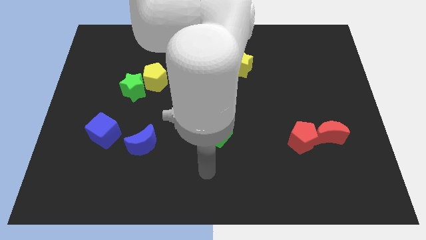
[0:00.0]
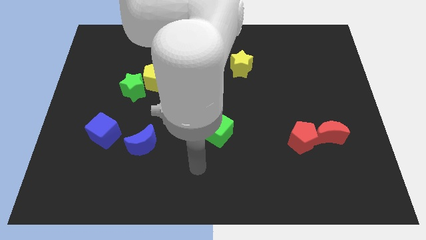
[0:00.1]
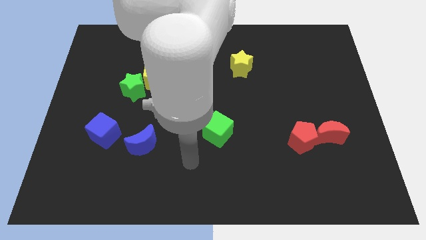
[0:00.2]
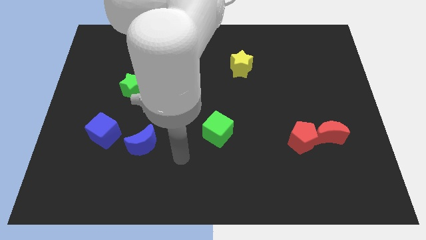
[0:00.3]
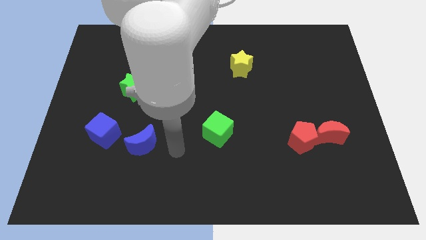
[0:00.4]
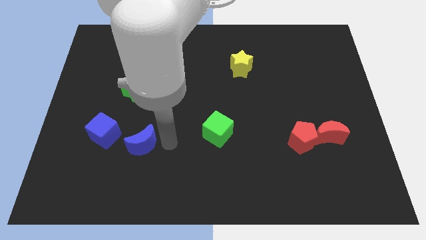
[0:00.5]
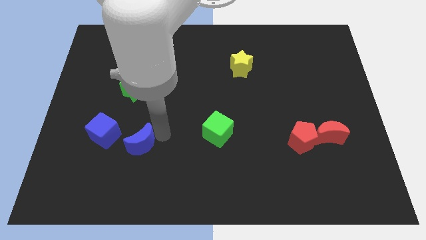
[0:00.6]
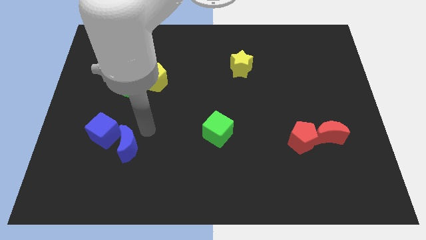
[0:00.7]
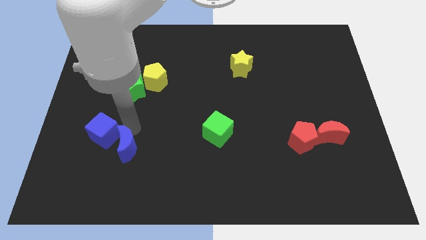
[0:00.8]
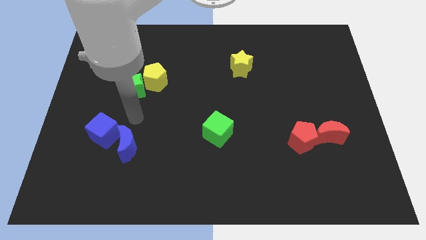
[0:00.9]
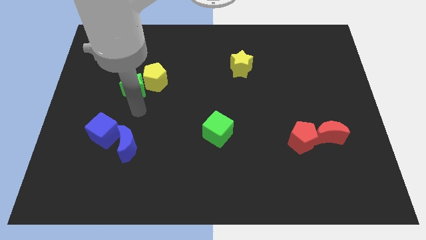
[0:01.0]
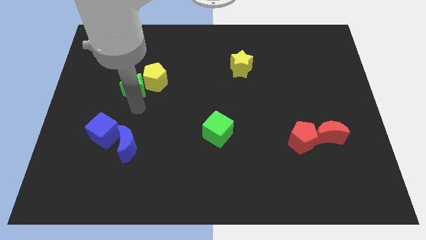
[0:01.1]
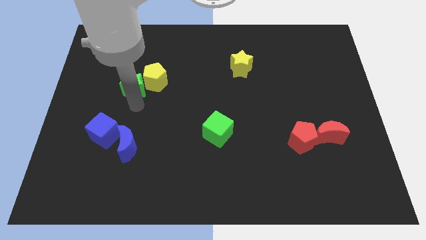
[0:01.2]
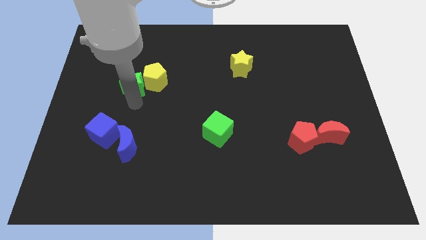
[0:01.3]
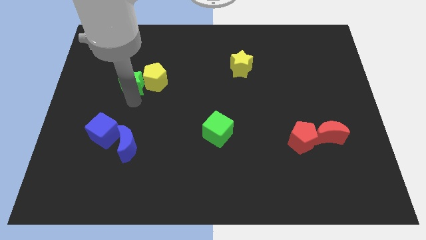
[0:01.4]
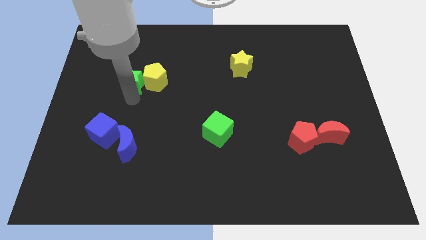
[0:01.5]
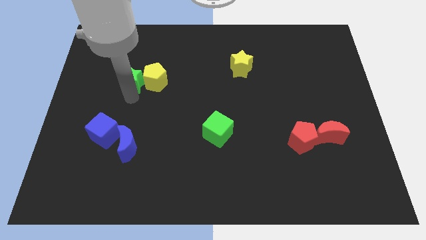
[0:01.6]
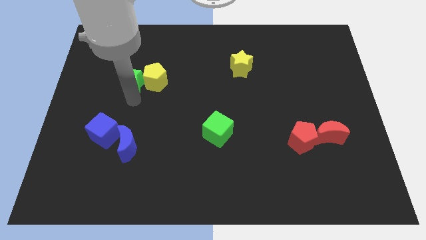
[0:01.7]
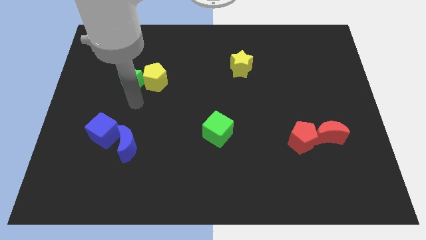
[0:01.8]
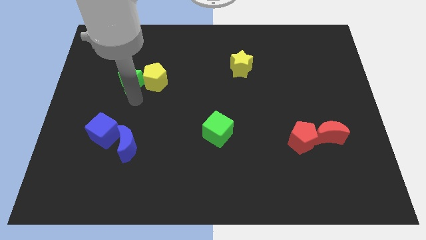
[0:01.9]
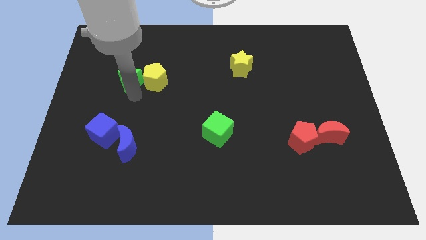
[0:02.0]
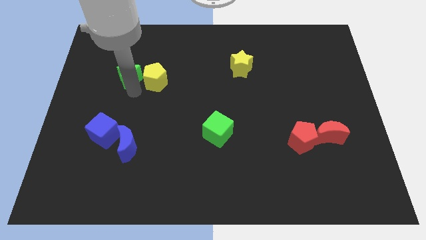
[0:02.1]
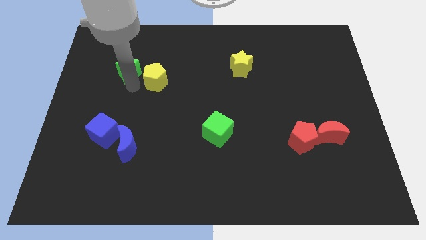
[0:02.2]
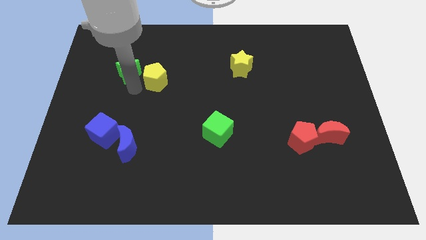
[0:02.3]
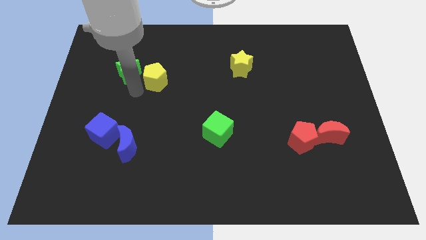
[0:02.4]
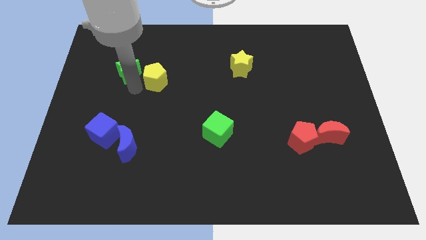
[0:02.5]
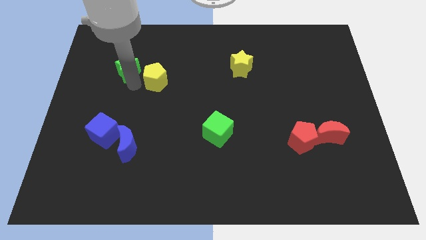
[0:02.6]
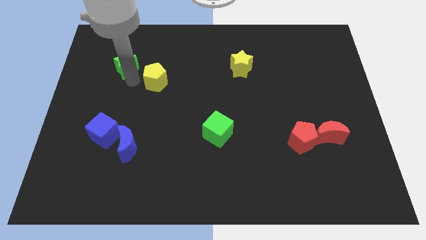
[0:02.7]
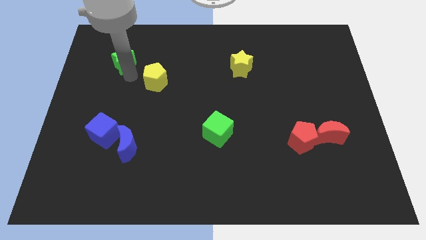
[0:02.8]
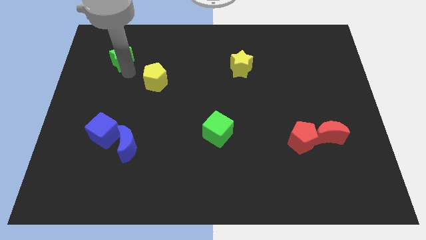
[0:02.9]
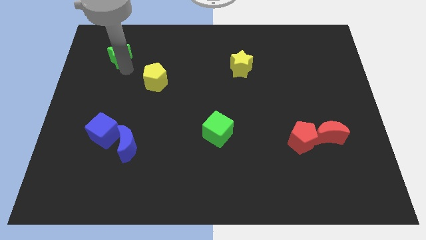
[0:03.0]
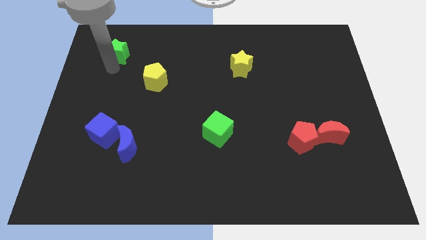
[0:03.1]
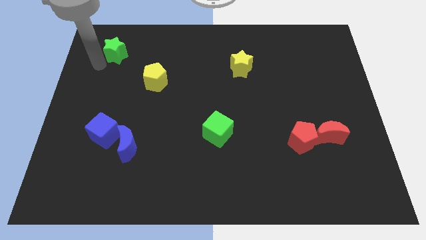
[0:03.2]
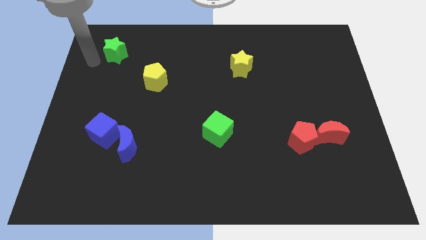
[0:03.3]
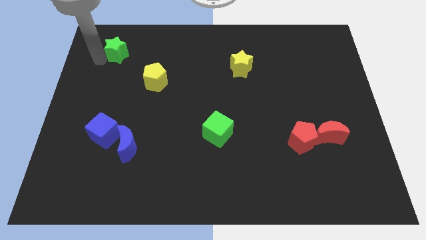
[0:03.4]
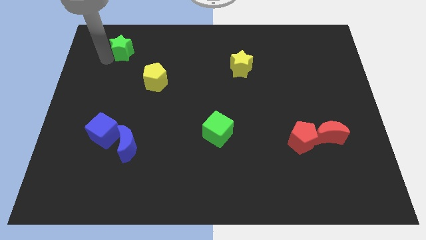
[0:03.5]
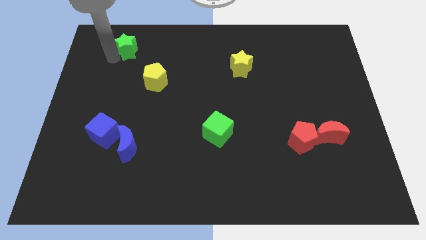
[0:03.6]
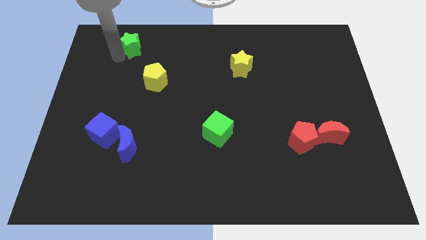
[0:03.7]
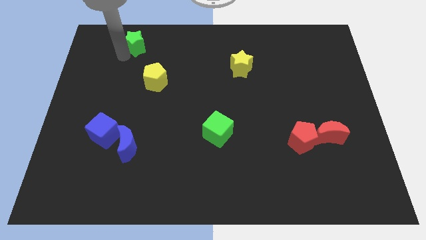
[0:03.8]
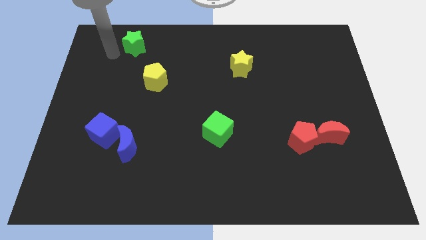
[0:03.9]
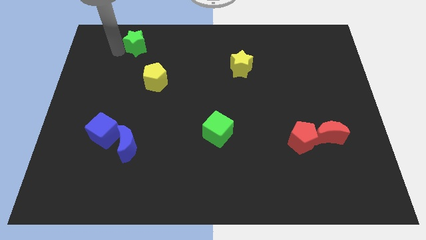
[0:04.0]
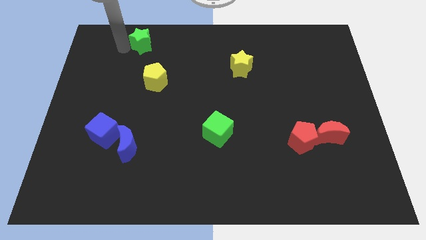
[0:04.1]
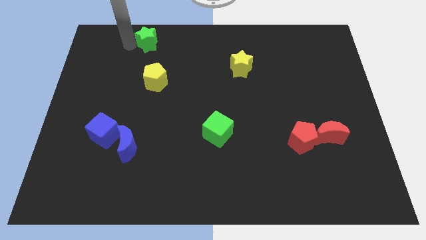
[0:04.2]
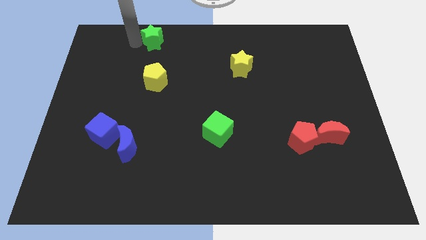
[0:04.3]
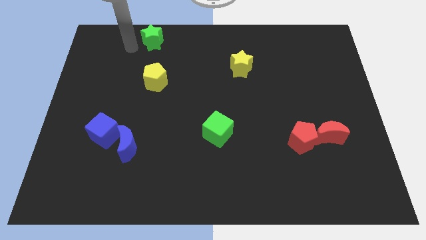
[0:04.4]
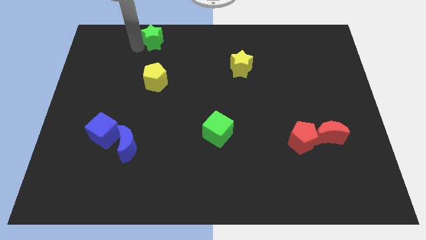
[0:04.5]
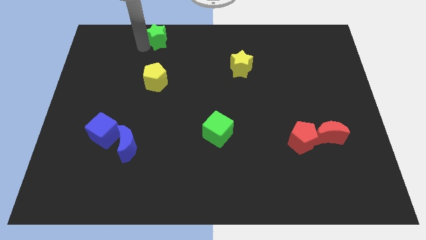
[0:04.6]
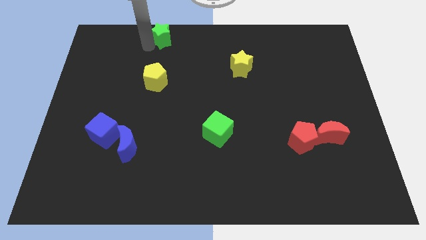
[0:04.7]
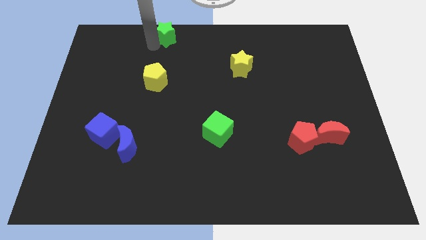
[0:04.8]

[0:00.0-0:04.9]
put the green star to the towards your base

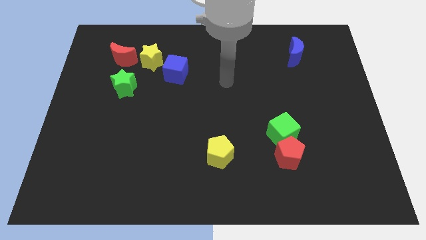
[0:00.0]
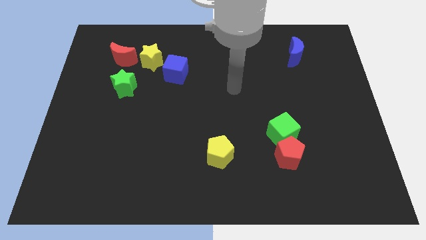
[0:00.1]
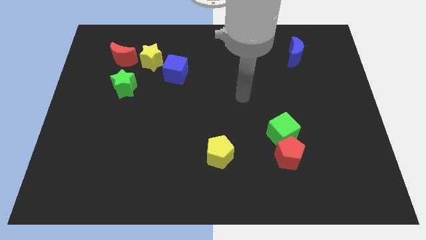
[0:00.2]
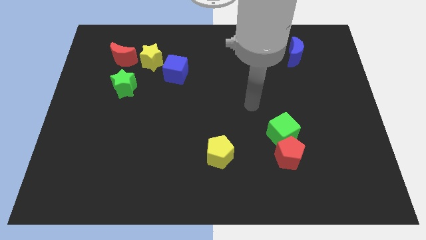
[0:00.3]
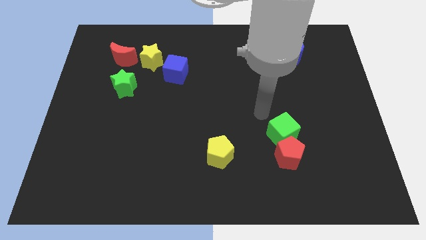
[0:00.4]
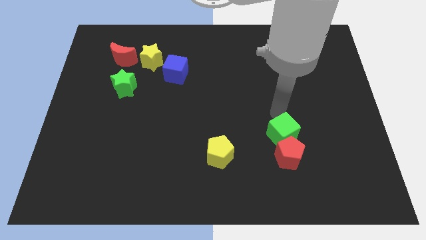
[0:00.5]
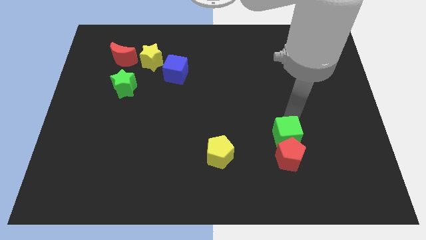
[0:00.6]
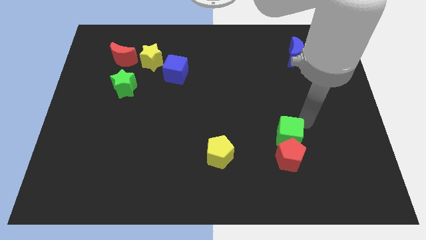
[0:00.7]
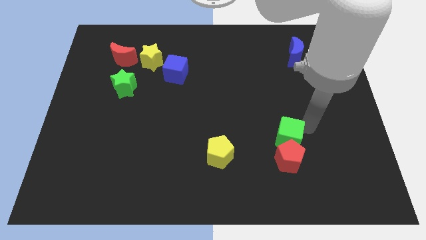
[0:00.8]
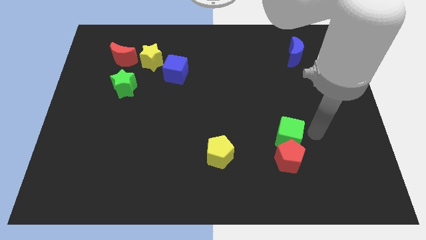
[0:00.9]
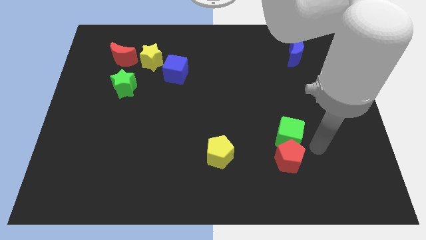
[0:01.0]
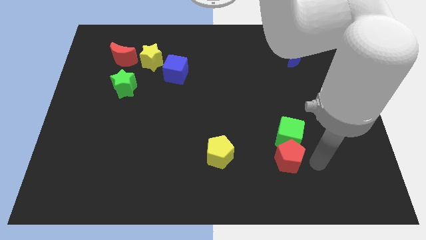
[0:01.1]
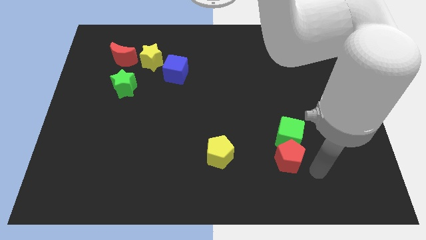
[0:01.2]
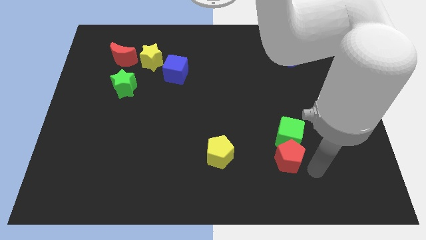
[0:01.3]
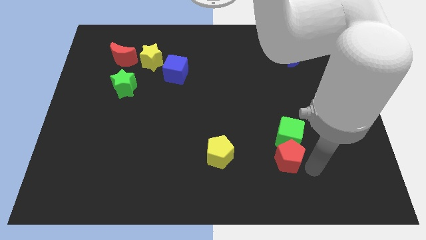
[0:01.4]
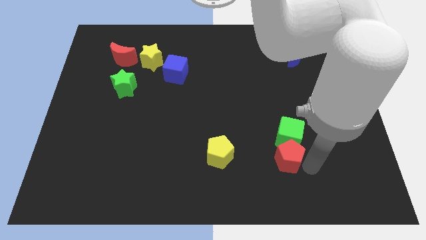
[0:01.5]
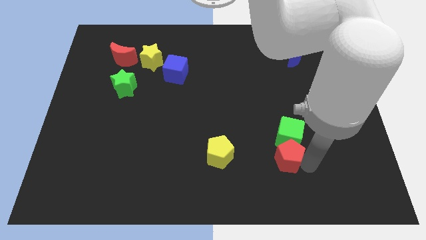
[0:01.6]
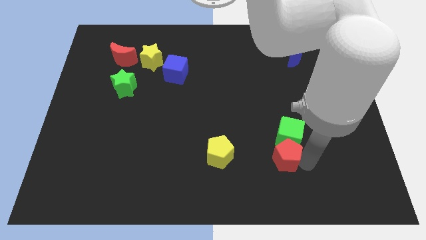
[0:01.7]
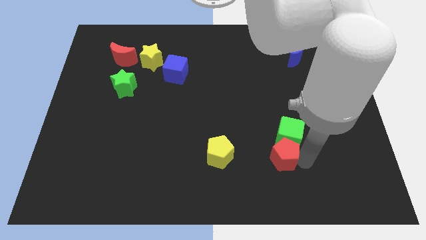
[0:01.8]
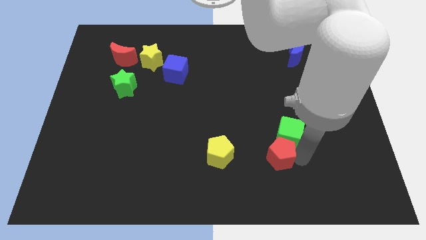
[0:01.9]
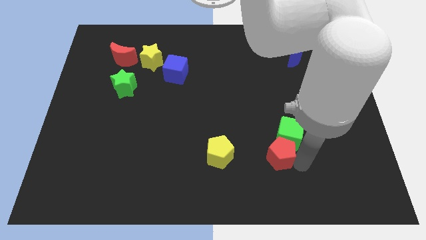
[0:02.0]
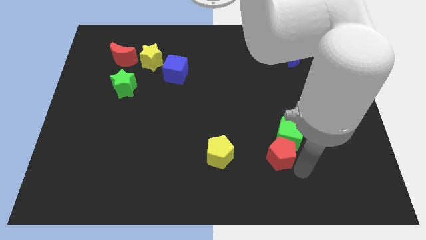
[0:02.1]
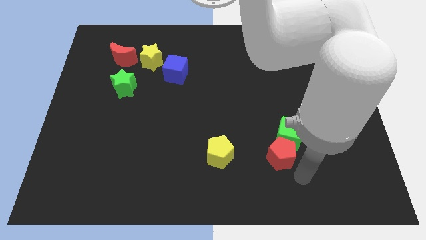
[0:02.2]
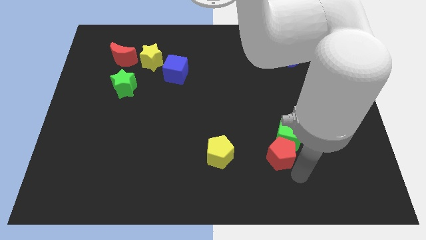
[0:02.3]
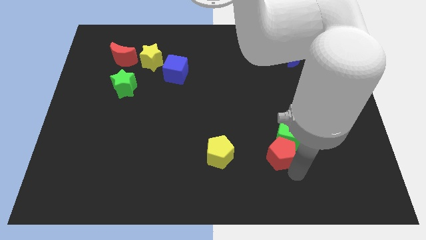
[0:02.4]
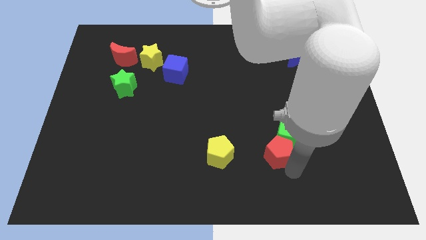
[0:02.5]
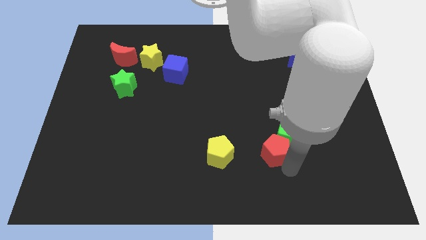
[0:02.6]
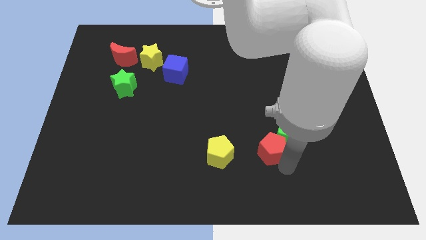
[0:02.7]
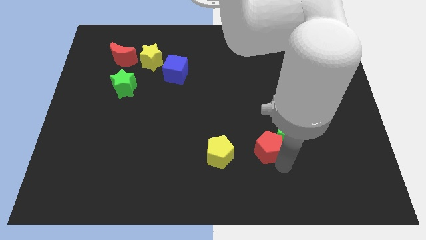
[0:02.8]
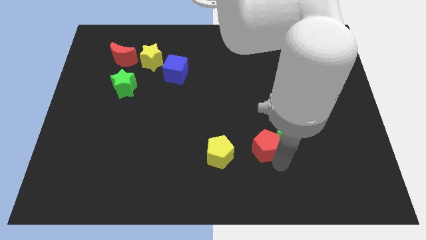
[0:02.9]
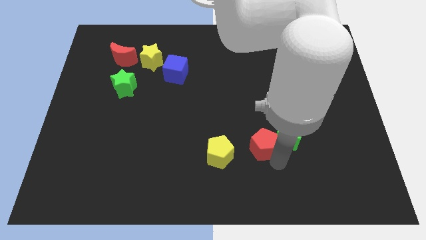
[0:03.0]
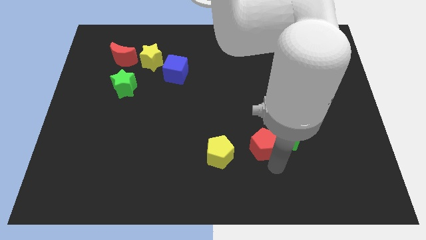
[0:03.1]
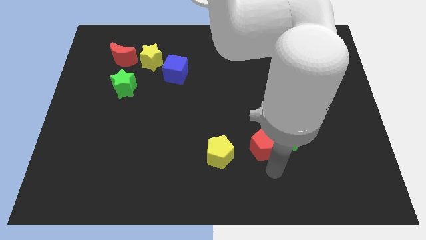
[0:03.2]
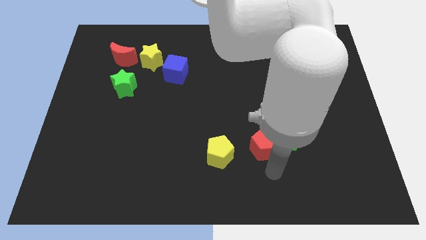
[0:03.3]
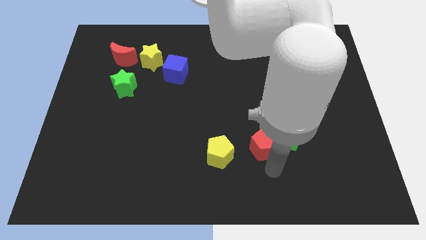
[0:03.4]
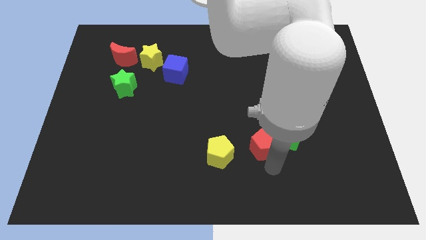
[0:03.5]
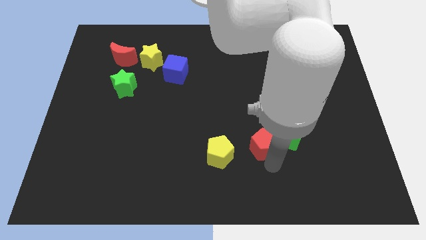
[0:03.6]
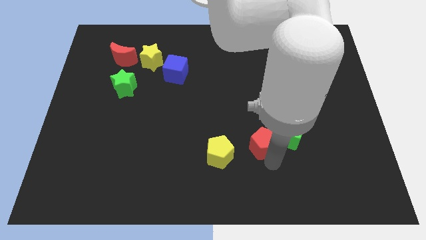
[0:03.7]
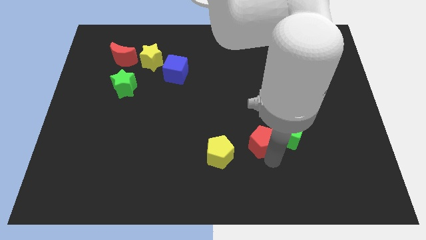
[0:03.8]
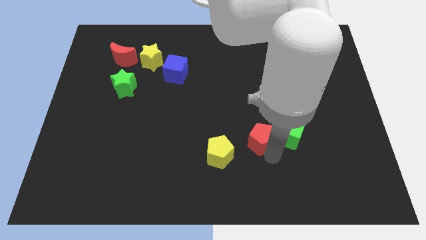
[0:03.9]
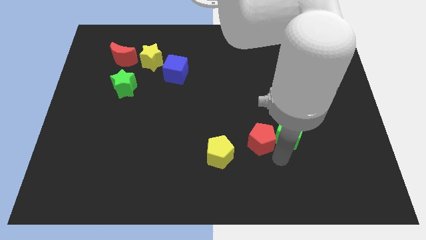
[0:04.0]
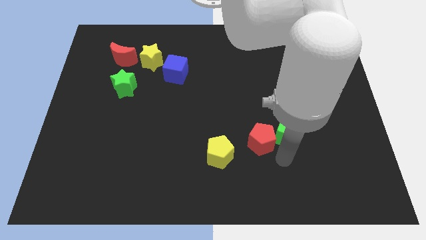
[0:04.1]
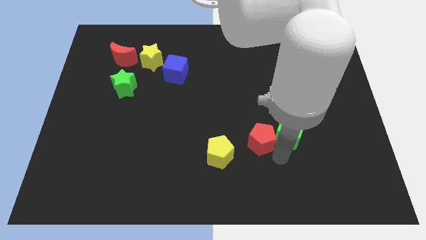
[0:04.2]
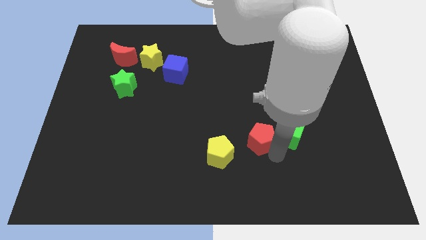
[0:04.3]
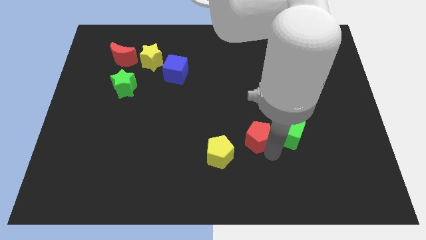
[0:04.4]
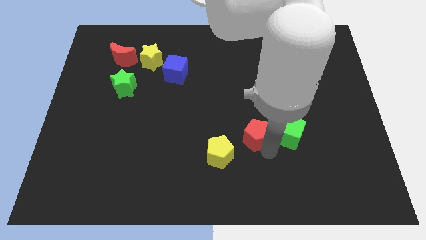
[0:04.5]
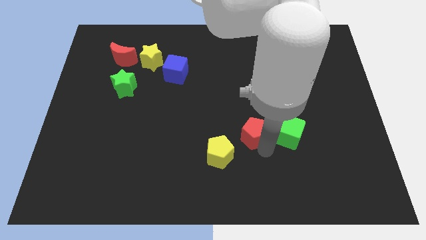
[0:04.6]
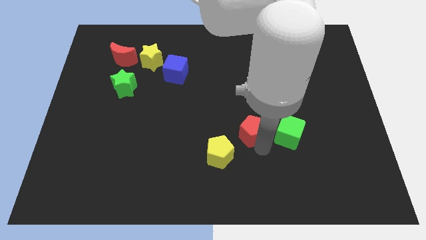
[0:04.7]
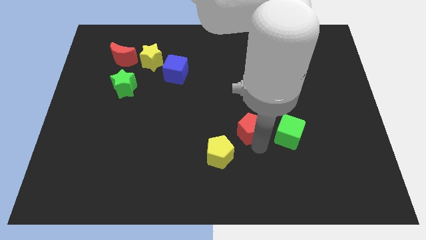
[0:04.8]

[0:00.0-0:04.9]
put the red pentagon to the middle of the board
